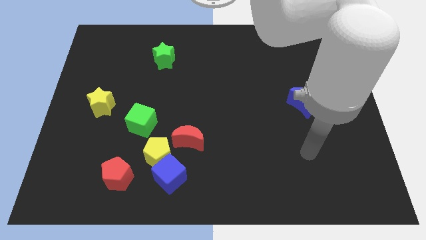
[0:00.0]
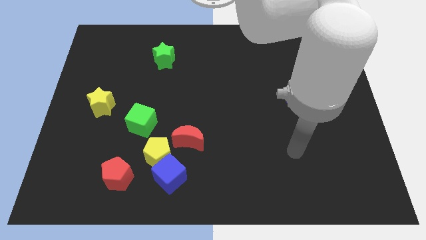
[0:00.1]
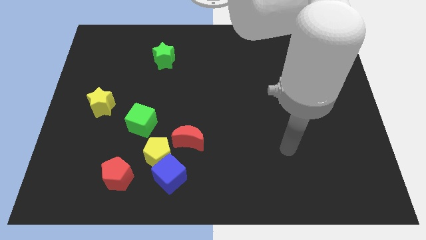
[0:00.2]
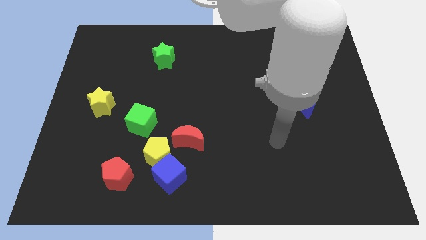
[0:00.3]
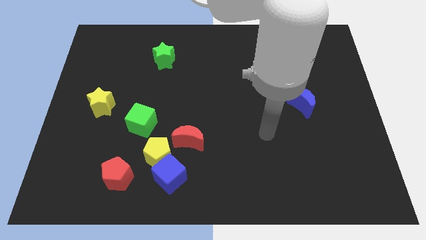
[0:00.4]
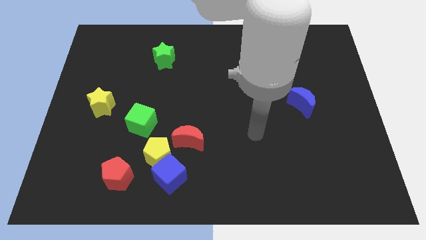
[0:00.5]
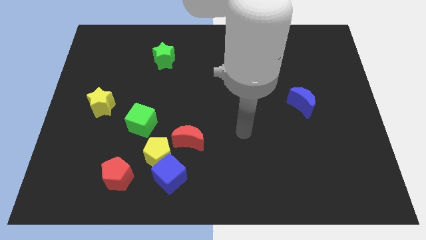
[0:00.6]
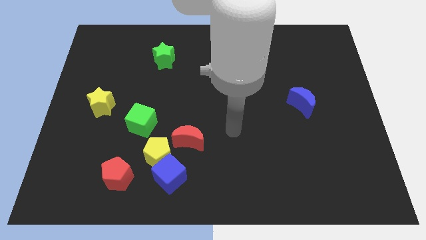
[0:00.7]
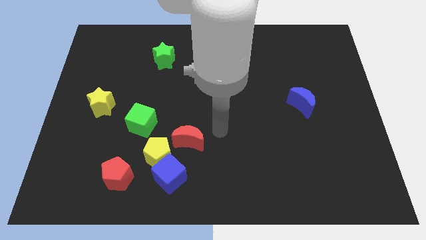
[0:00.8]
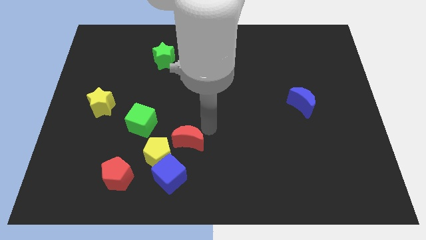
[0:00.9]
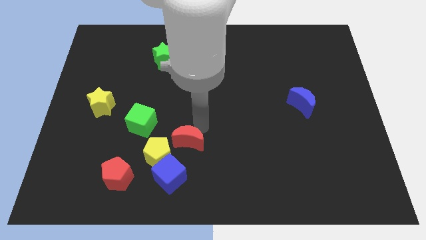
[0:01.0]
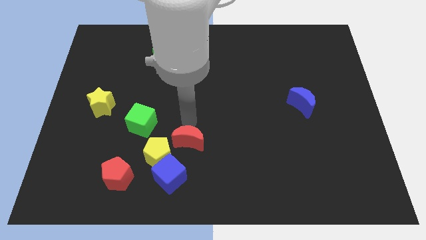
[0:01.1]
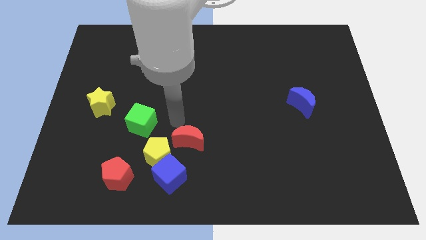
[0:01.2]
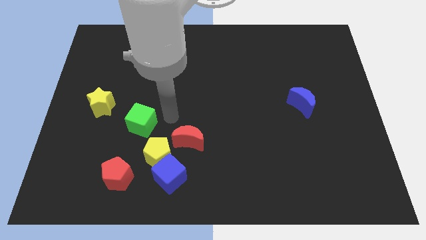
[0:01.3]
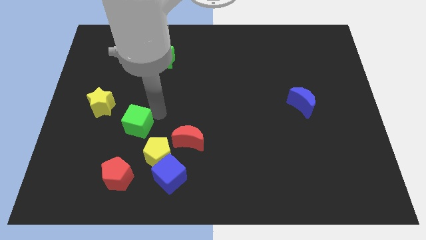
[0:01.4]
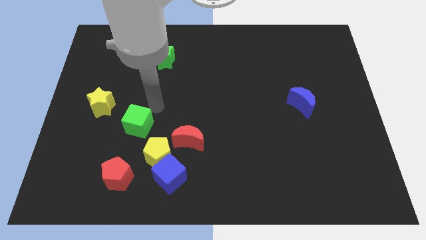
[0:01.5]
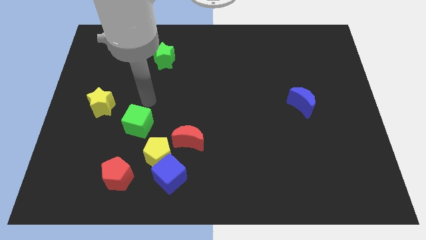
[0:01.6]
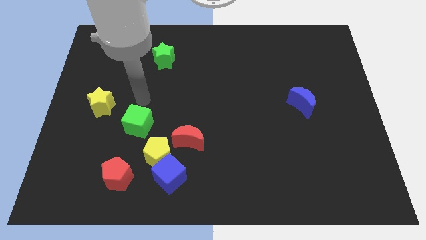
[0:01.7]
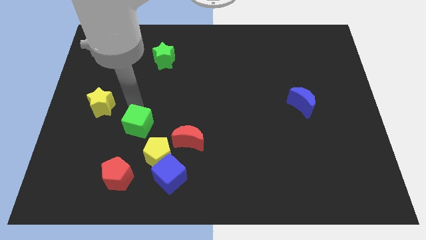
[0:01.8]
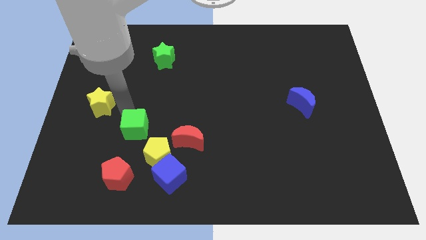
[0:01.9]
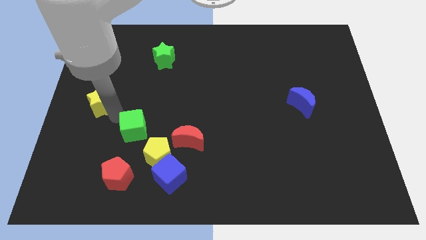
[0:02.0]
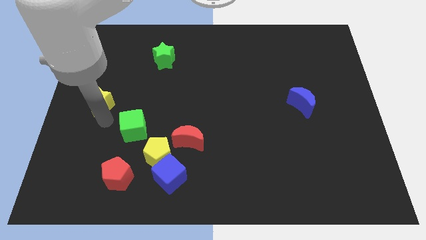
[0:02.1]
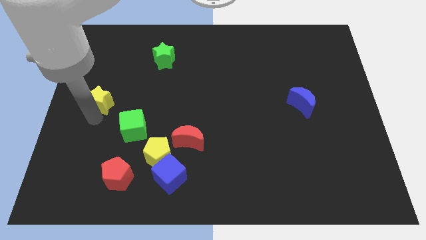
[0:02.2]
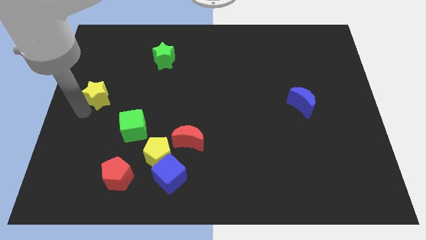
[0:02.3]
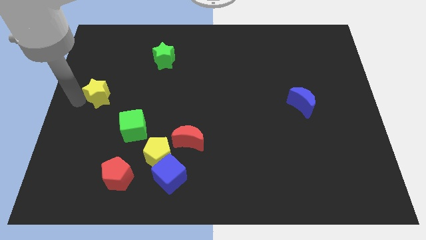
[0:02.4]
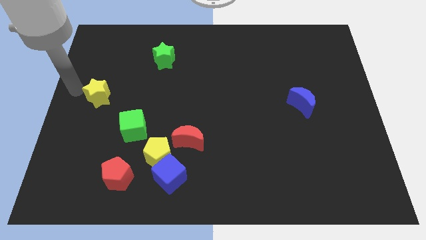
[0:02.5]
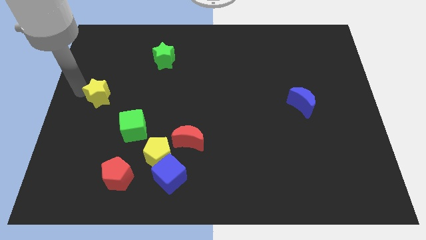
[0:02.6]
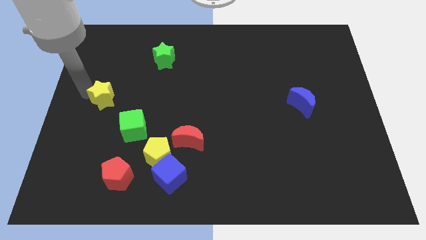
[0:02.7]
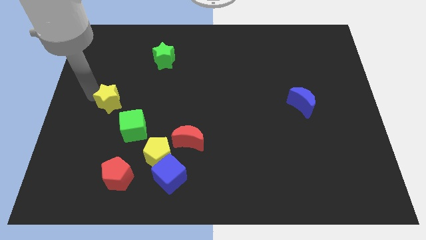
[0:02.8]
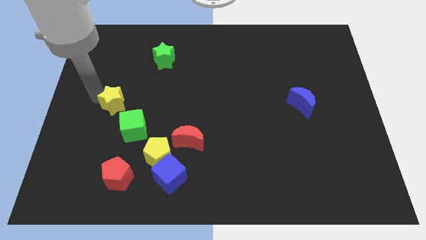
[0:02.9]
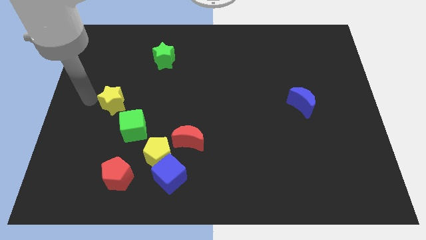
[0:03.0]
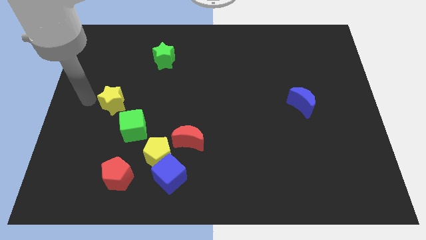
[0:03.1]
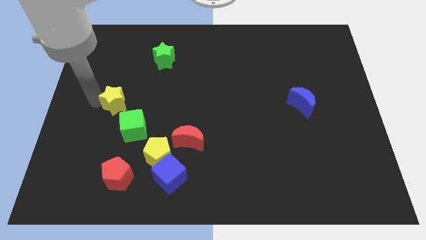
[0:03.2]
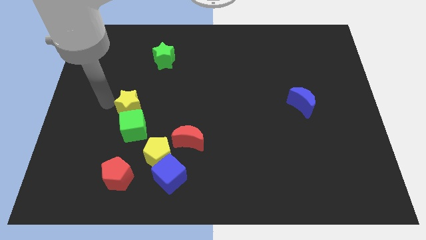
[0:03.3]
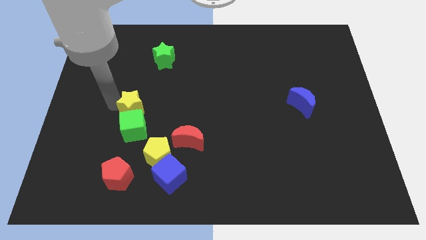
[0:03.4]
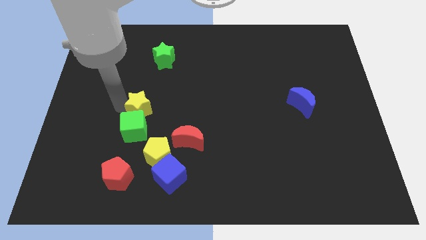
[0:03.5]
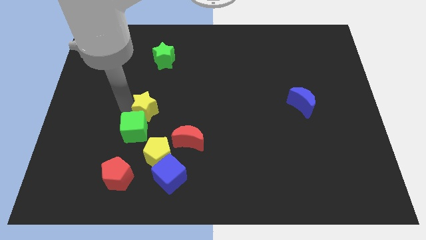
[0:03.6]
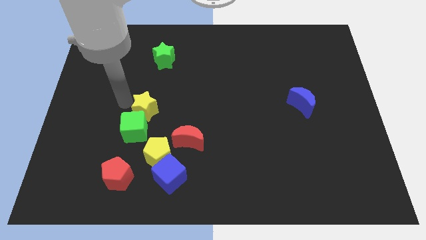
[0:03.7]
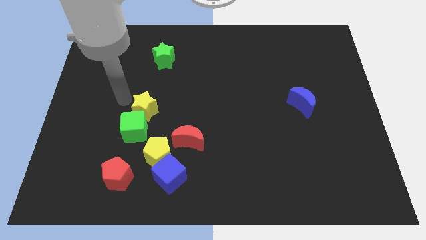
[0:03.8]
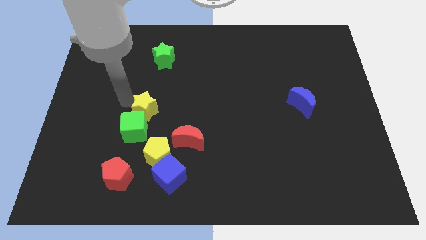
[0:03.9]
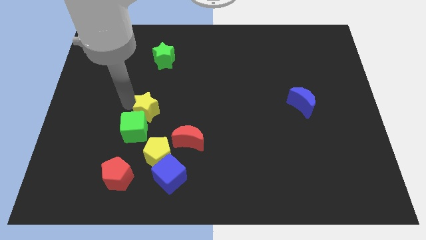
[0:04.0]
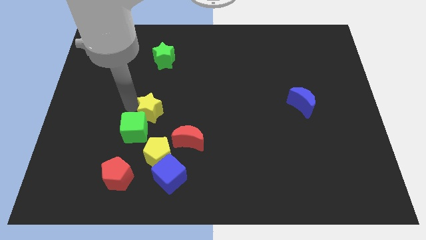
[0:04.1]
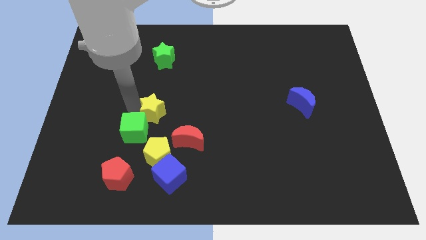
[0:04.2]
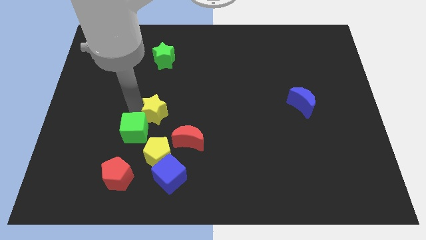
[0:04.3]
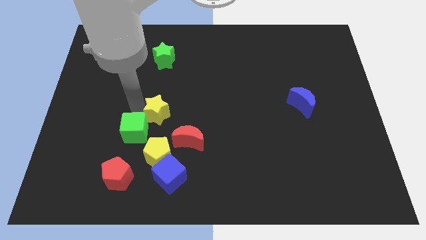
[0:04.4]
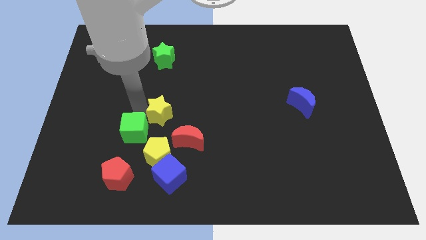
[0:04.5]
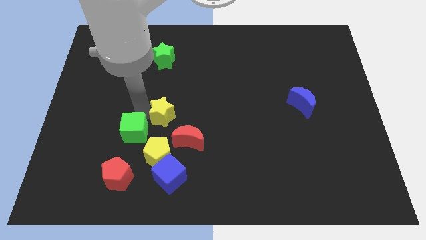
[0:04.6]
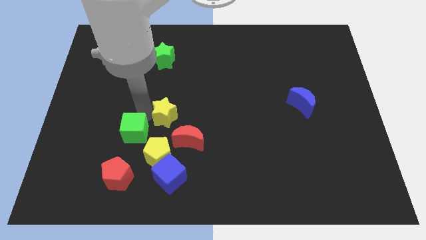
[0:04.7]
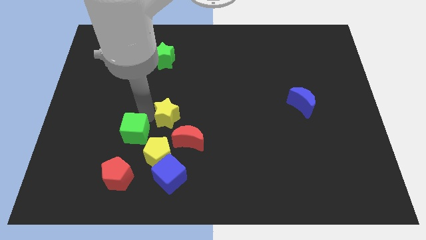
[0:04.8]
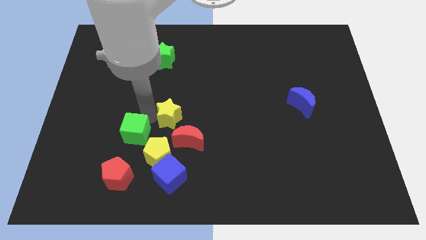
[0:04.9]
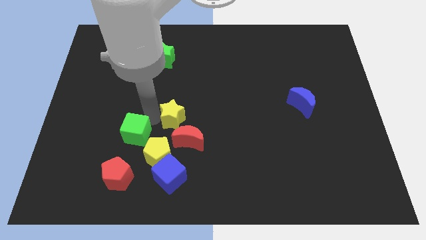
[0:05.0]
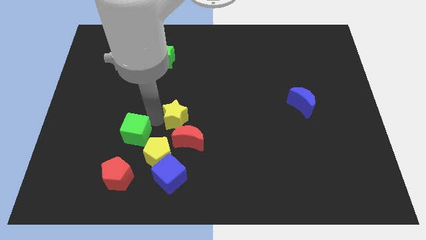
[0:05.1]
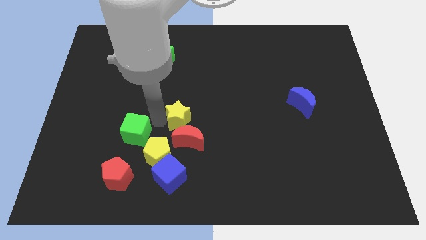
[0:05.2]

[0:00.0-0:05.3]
move the yellow star to the red moon
